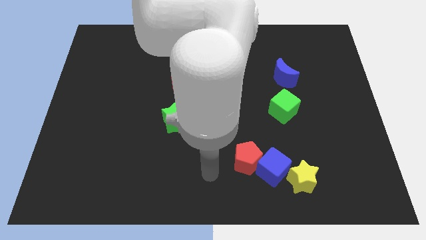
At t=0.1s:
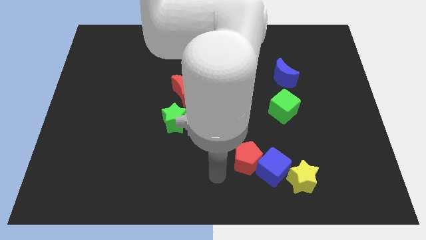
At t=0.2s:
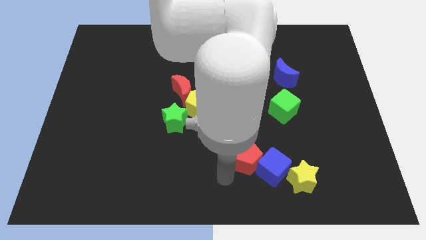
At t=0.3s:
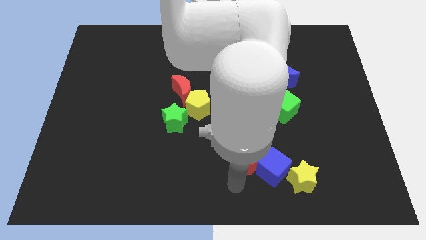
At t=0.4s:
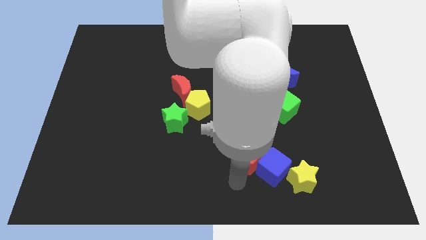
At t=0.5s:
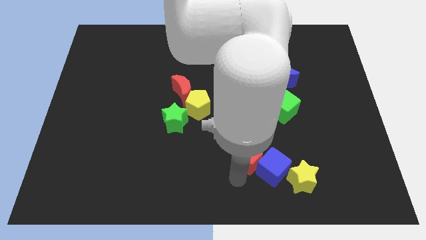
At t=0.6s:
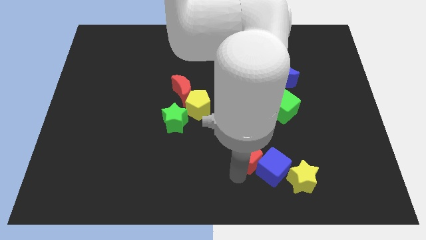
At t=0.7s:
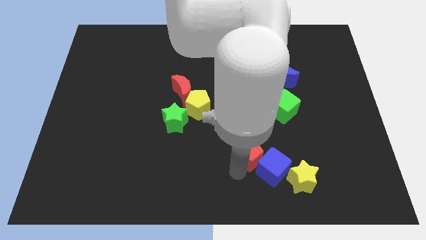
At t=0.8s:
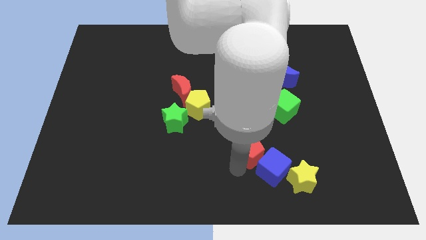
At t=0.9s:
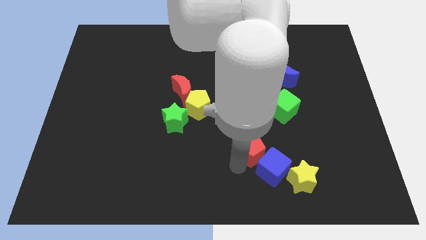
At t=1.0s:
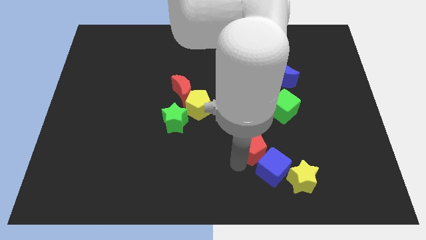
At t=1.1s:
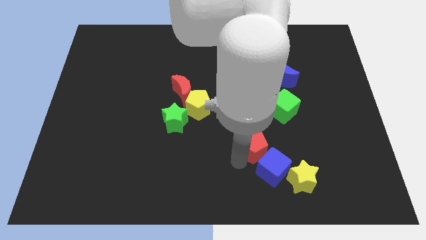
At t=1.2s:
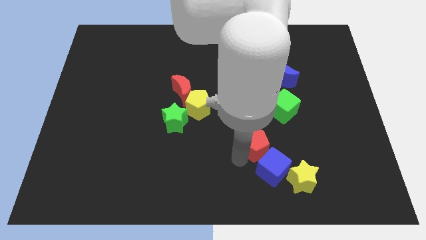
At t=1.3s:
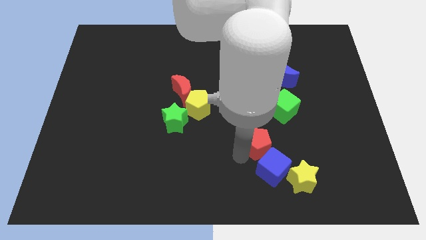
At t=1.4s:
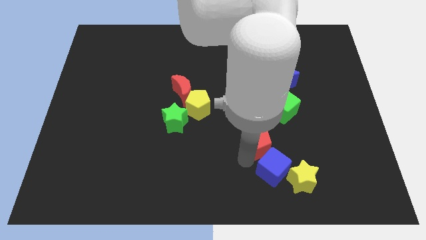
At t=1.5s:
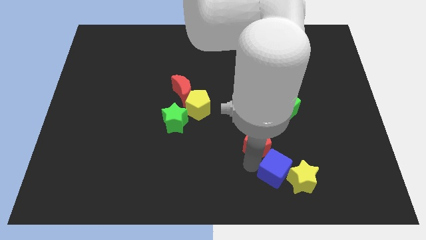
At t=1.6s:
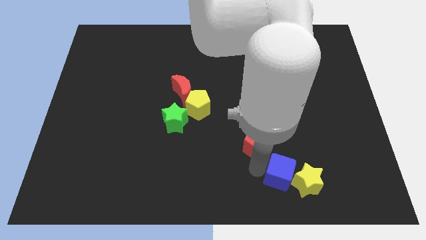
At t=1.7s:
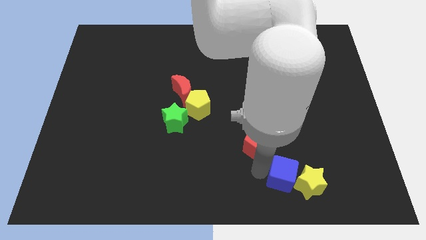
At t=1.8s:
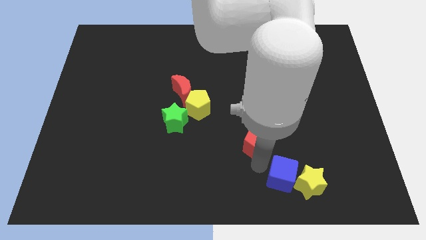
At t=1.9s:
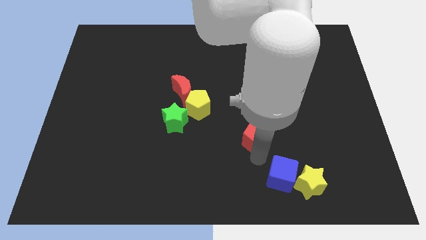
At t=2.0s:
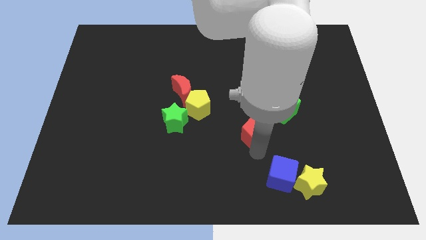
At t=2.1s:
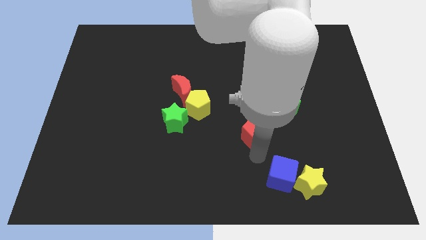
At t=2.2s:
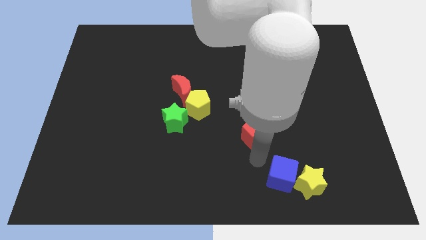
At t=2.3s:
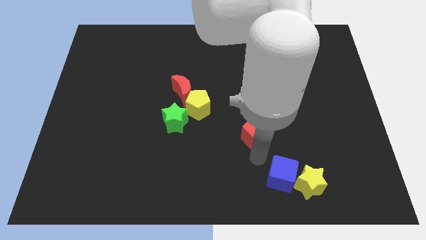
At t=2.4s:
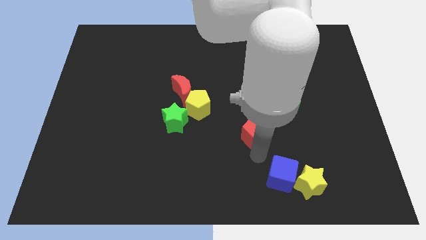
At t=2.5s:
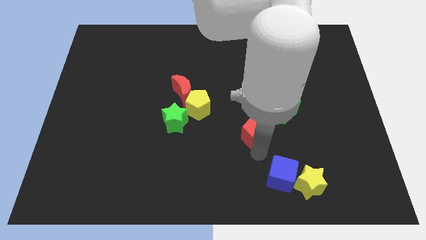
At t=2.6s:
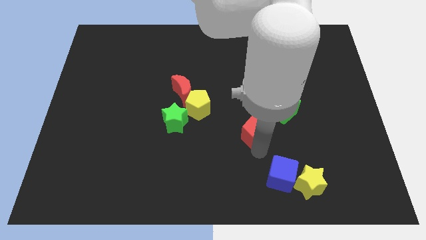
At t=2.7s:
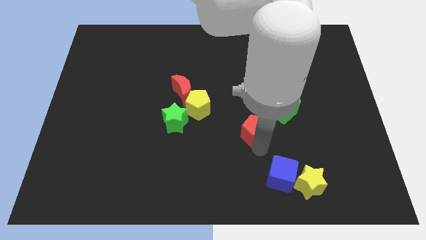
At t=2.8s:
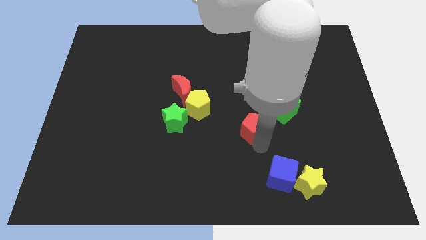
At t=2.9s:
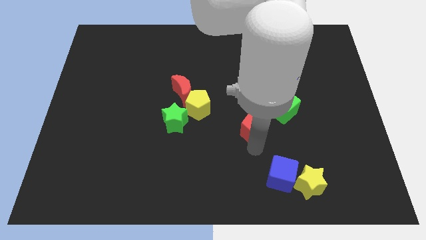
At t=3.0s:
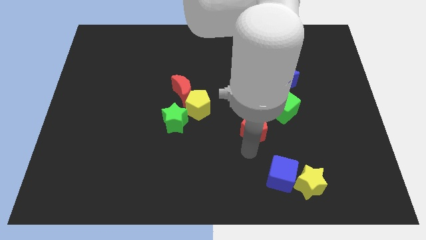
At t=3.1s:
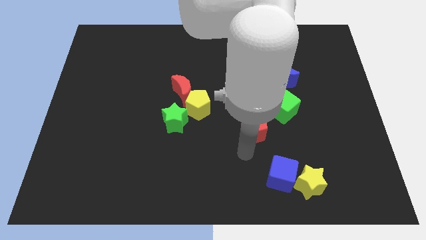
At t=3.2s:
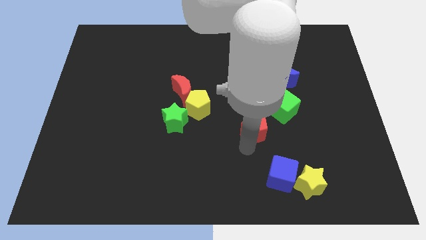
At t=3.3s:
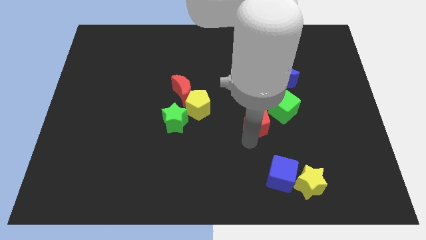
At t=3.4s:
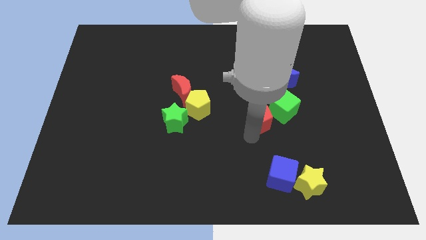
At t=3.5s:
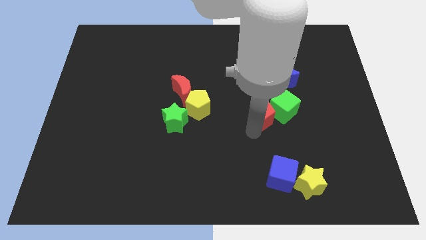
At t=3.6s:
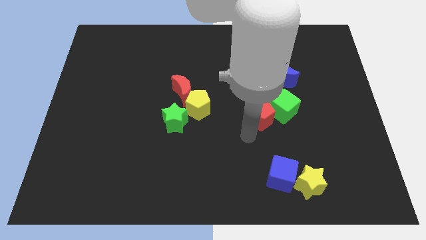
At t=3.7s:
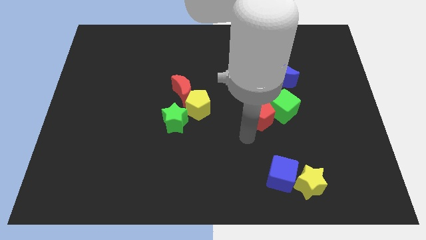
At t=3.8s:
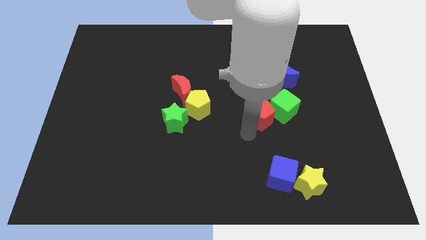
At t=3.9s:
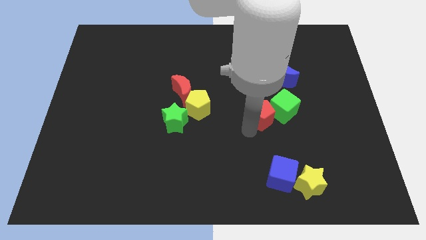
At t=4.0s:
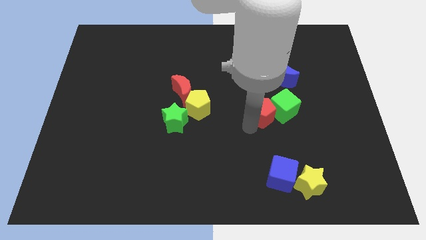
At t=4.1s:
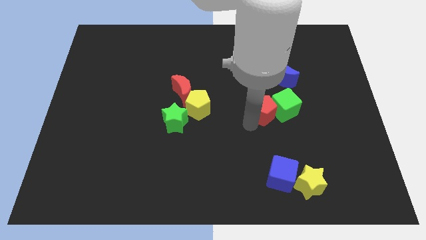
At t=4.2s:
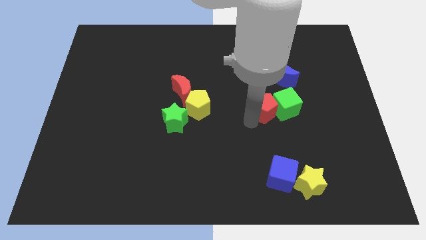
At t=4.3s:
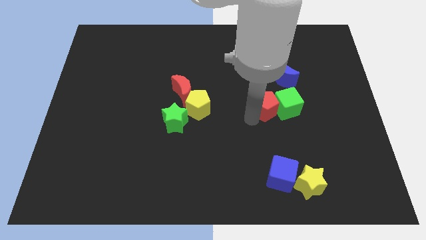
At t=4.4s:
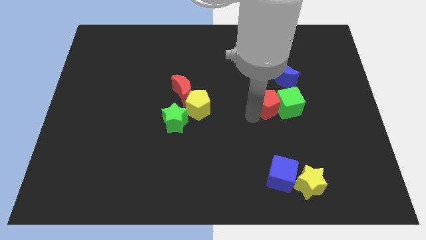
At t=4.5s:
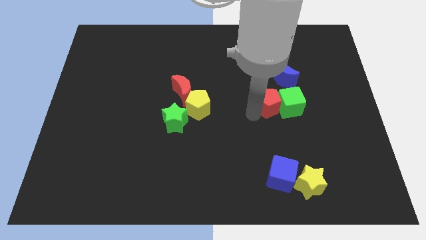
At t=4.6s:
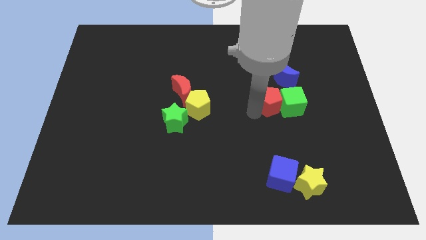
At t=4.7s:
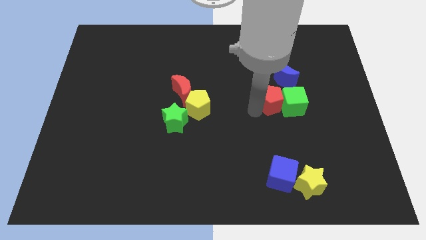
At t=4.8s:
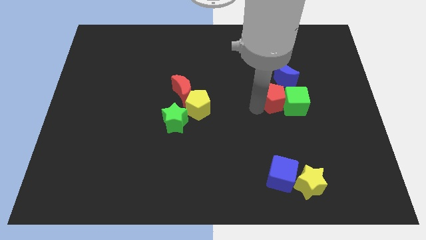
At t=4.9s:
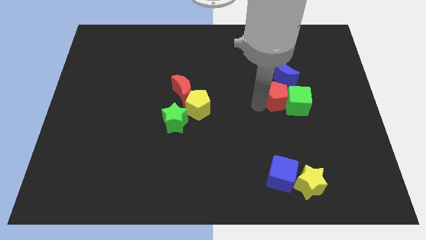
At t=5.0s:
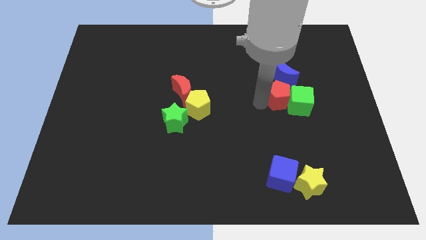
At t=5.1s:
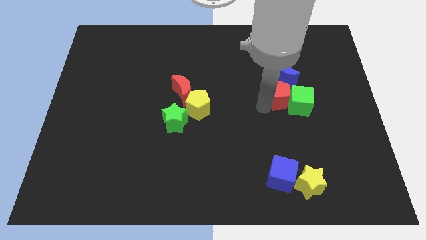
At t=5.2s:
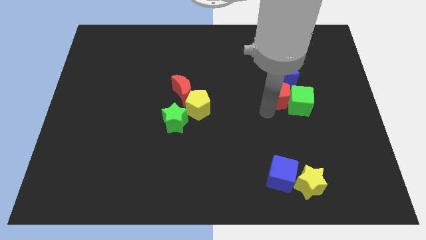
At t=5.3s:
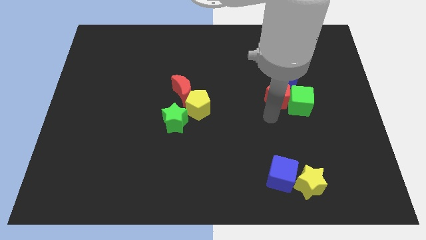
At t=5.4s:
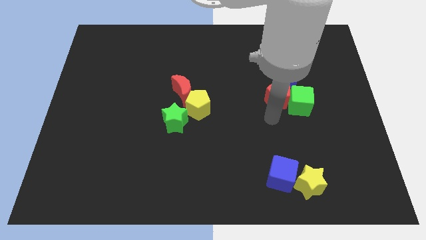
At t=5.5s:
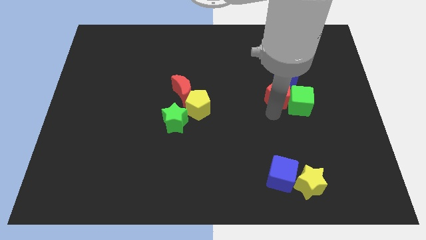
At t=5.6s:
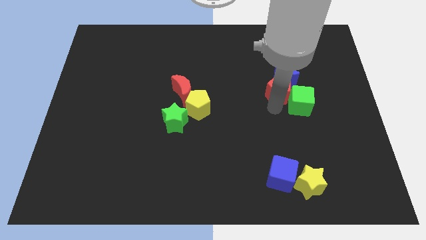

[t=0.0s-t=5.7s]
push the red pentagon next to the blue moon

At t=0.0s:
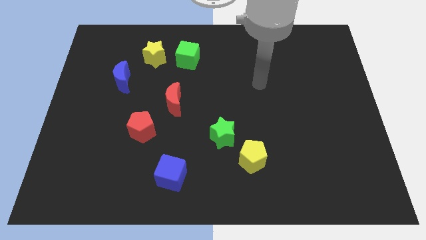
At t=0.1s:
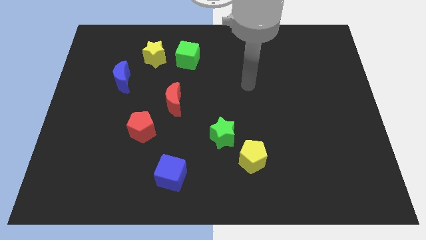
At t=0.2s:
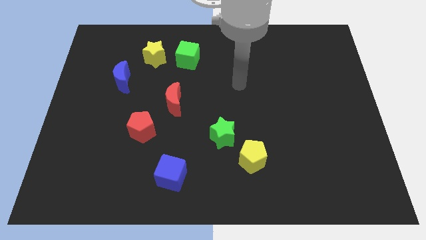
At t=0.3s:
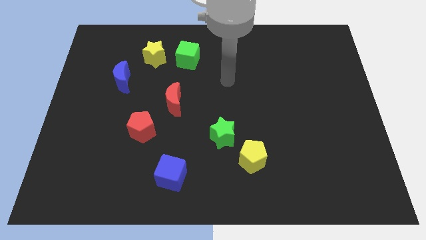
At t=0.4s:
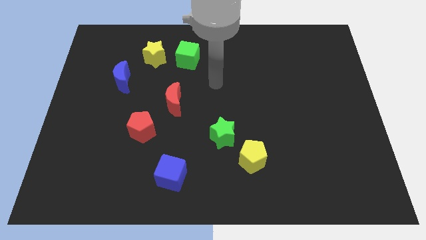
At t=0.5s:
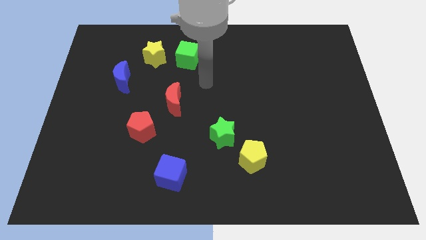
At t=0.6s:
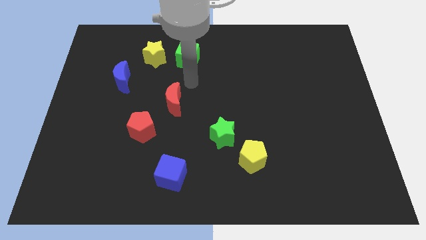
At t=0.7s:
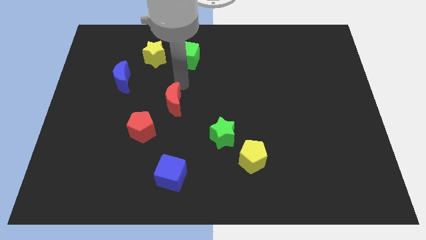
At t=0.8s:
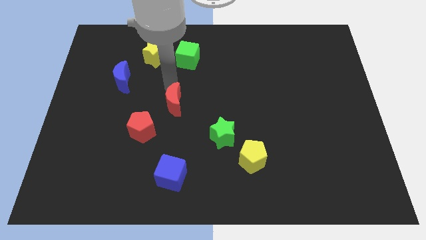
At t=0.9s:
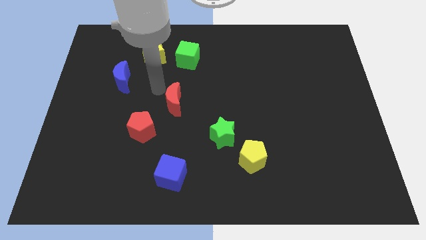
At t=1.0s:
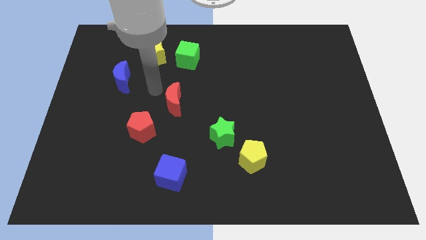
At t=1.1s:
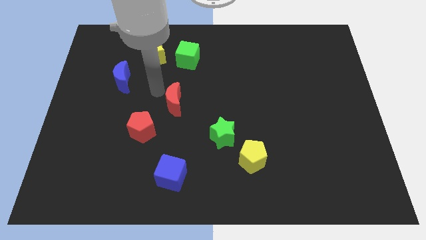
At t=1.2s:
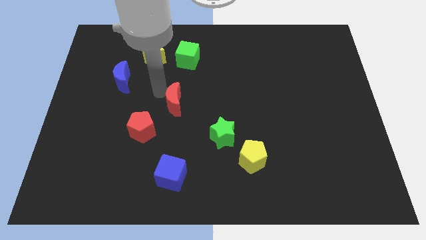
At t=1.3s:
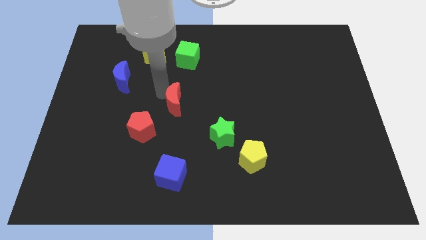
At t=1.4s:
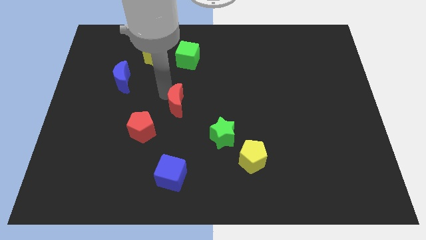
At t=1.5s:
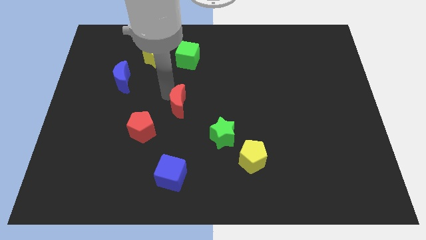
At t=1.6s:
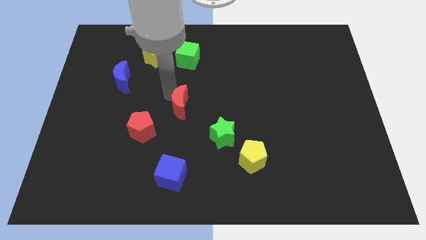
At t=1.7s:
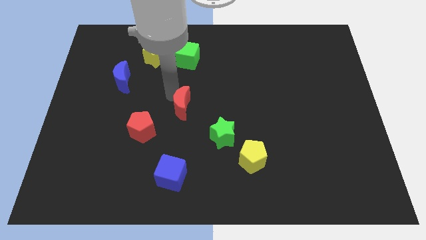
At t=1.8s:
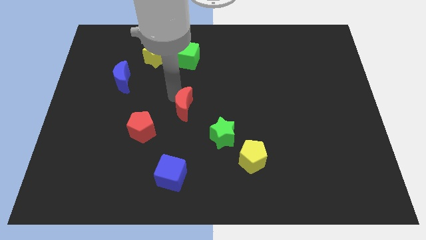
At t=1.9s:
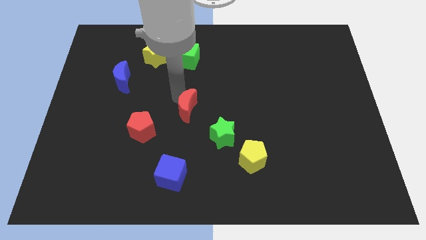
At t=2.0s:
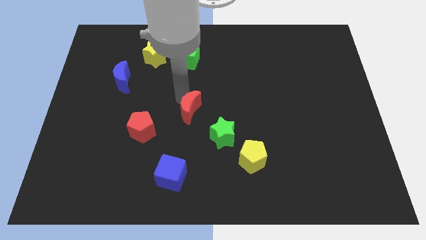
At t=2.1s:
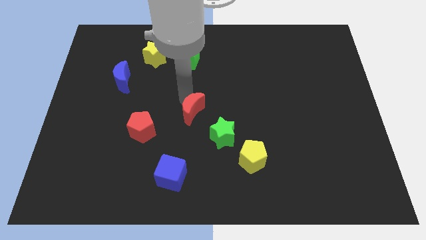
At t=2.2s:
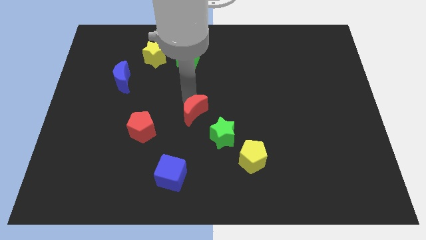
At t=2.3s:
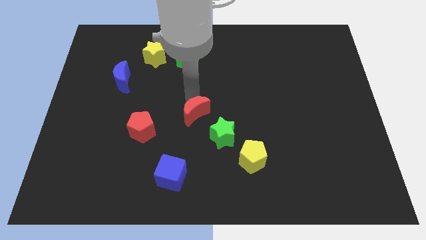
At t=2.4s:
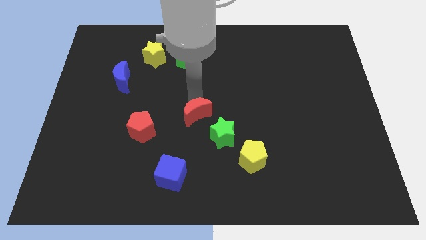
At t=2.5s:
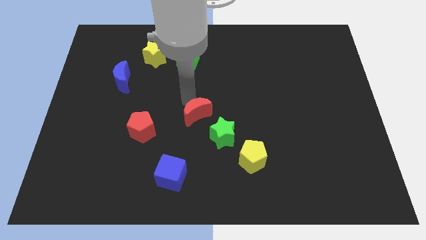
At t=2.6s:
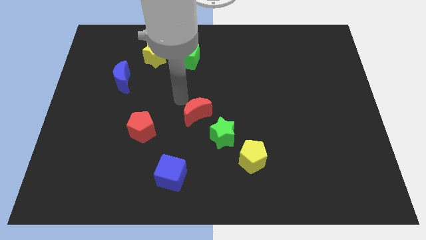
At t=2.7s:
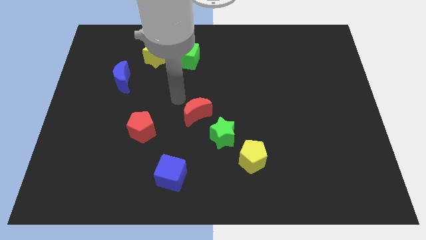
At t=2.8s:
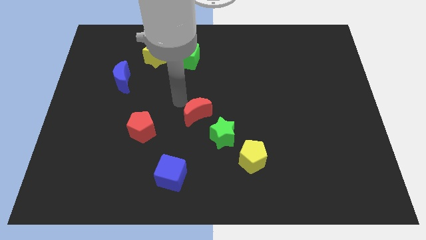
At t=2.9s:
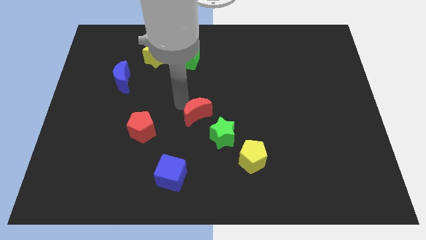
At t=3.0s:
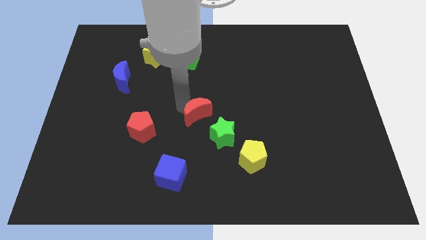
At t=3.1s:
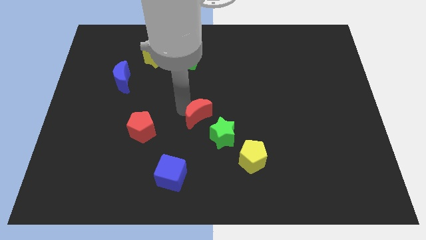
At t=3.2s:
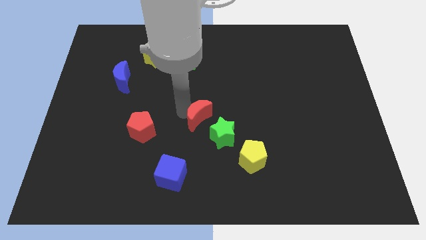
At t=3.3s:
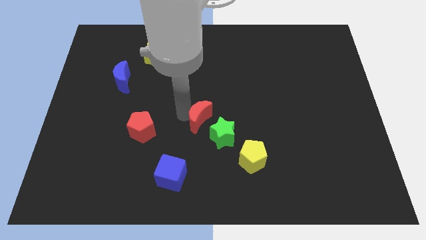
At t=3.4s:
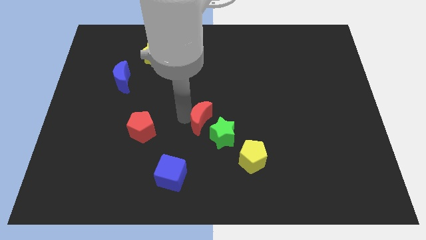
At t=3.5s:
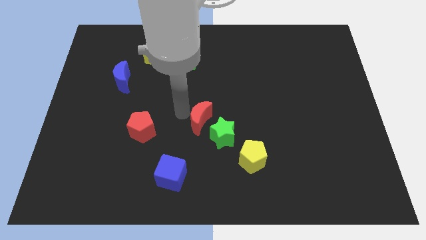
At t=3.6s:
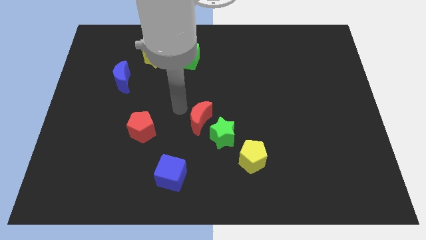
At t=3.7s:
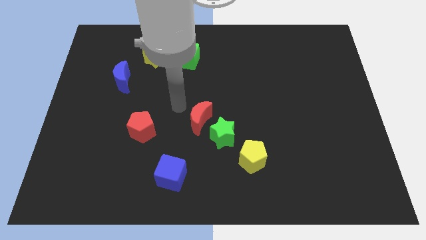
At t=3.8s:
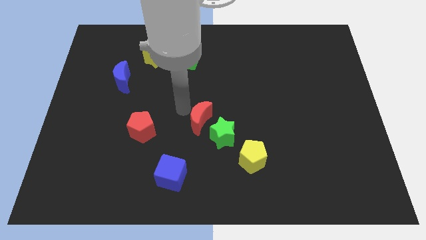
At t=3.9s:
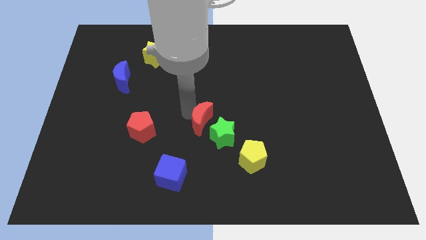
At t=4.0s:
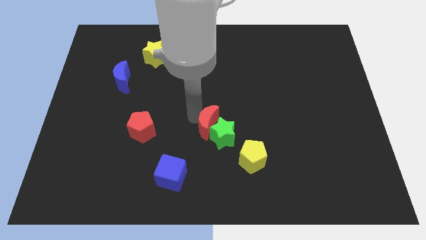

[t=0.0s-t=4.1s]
push the red moon close to the green star
